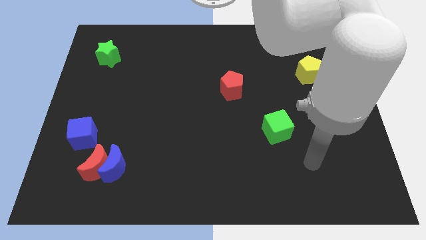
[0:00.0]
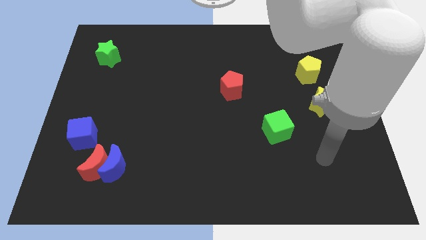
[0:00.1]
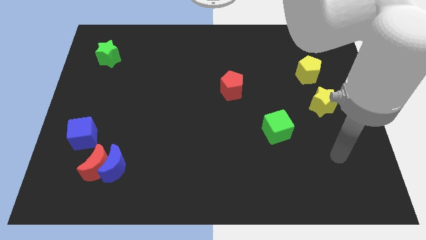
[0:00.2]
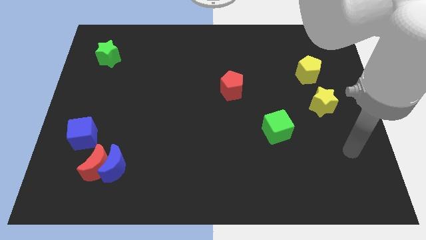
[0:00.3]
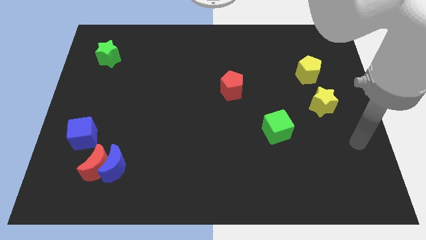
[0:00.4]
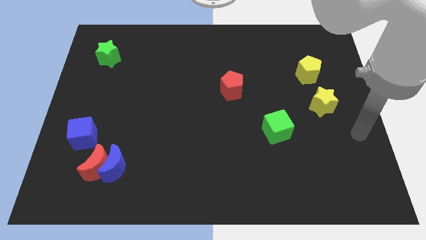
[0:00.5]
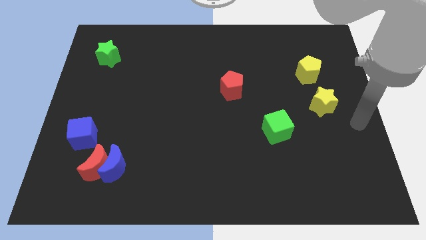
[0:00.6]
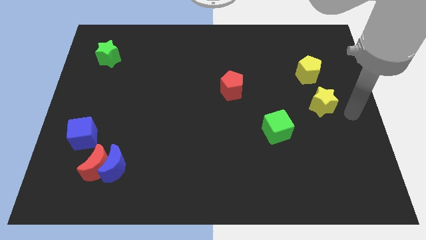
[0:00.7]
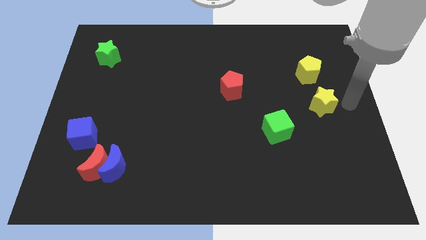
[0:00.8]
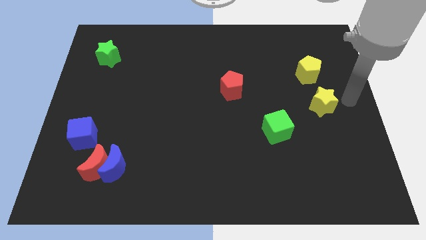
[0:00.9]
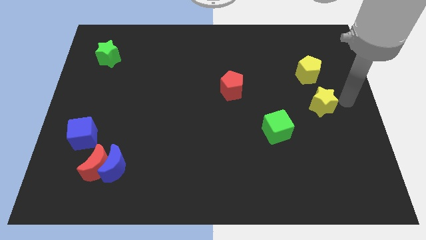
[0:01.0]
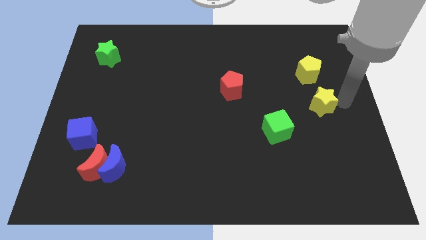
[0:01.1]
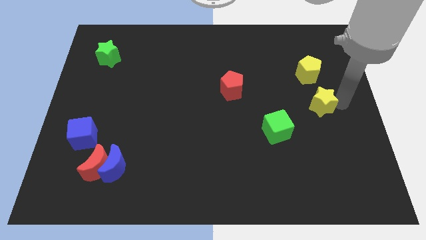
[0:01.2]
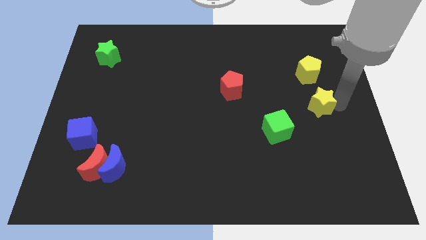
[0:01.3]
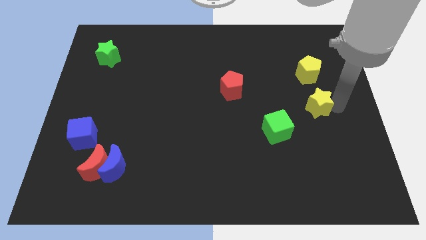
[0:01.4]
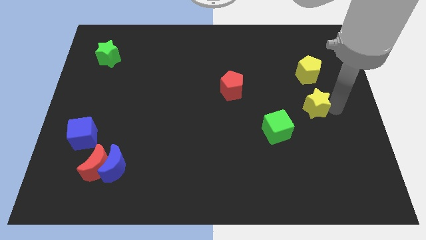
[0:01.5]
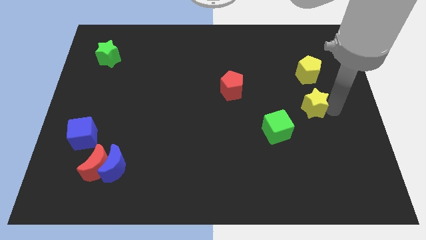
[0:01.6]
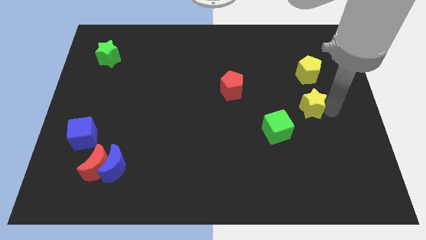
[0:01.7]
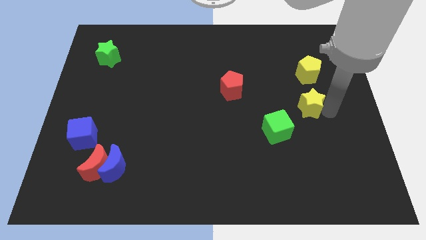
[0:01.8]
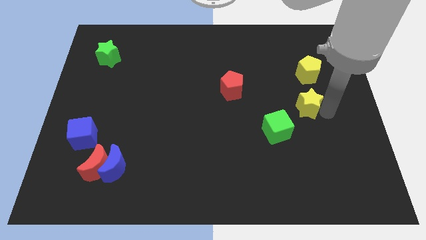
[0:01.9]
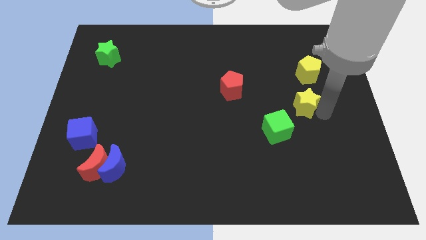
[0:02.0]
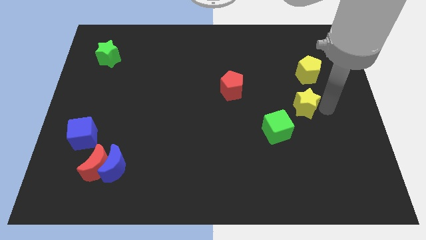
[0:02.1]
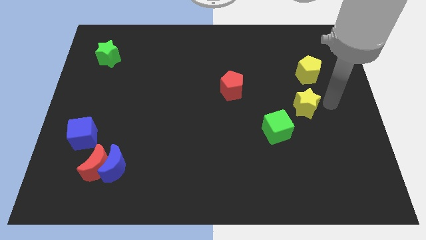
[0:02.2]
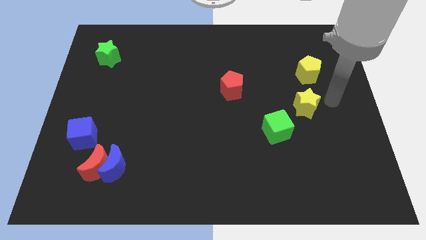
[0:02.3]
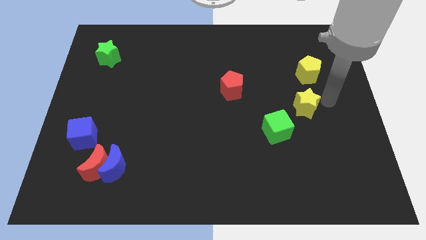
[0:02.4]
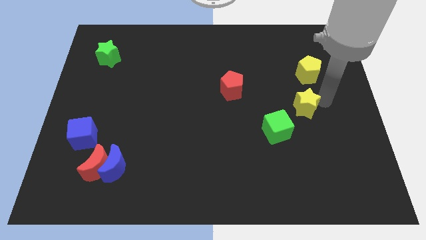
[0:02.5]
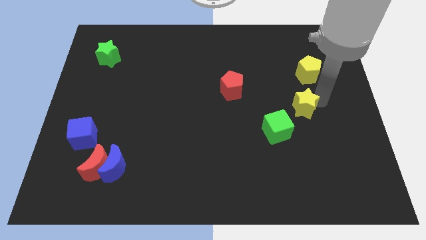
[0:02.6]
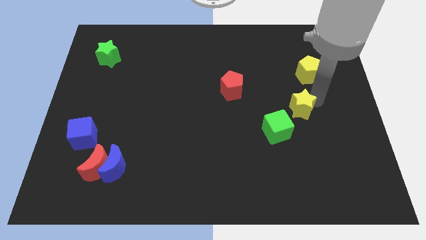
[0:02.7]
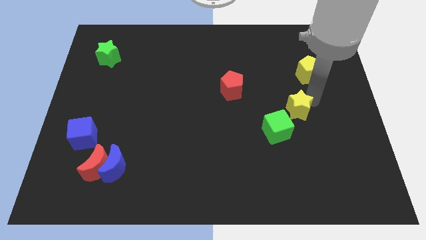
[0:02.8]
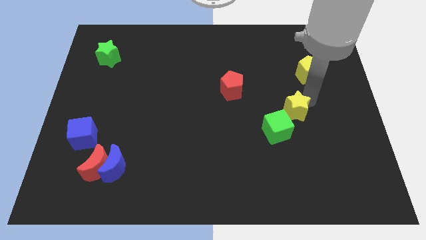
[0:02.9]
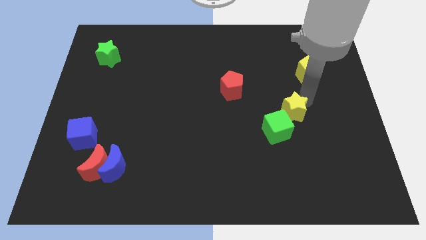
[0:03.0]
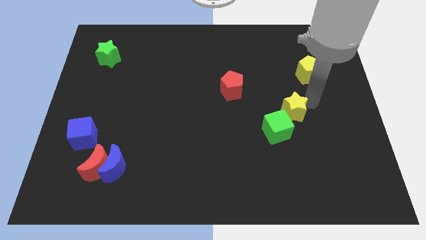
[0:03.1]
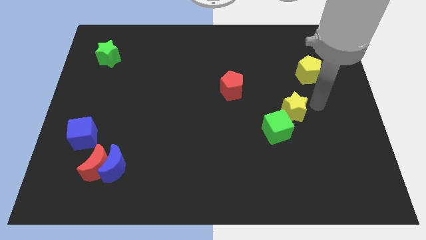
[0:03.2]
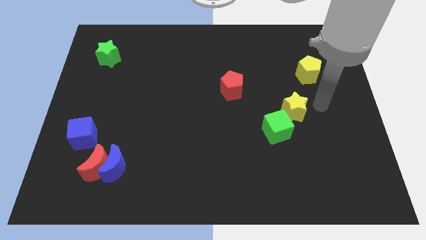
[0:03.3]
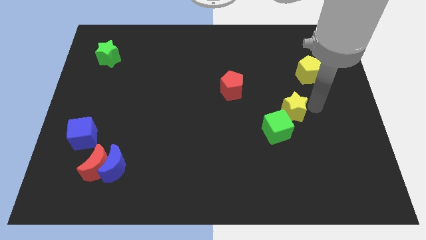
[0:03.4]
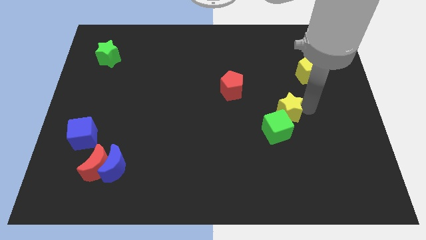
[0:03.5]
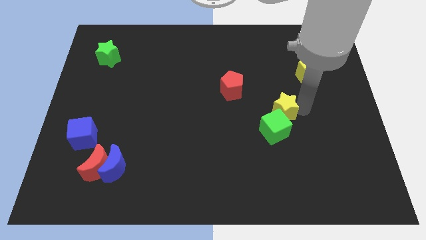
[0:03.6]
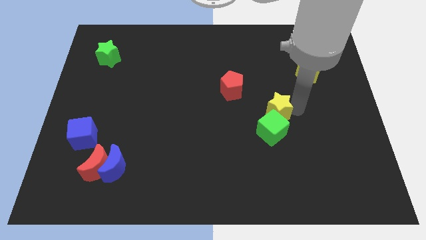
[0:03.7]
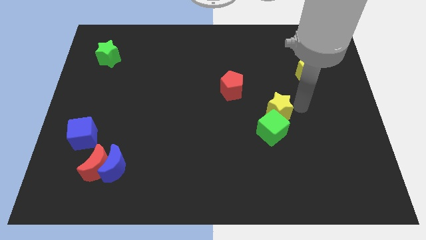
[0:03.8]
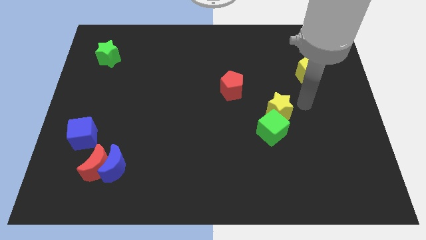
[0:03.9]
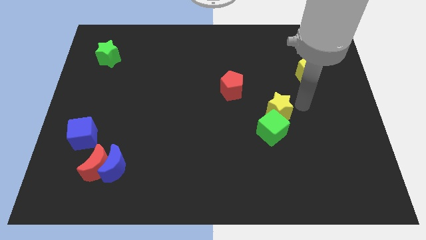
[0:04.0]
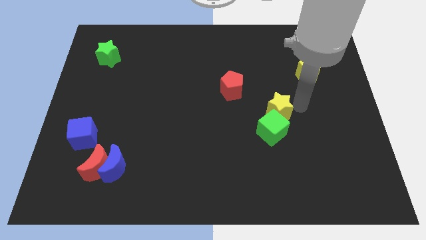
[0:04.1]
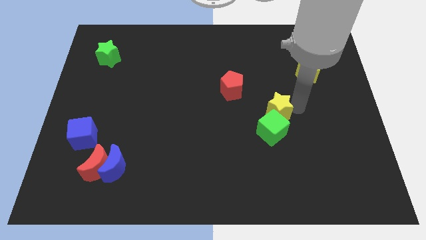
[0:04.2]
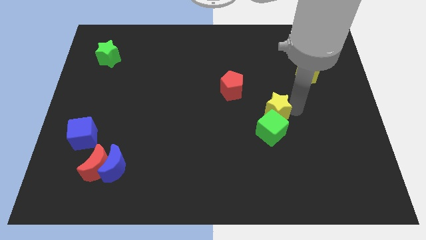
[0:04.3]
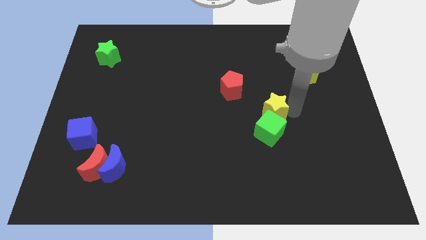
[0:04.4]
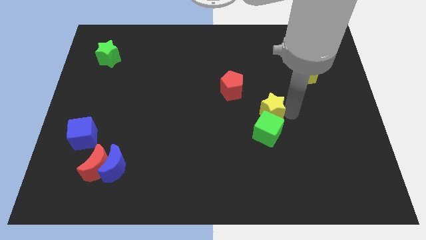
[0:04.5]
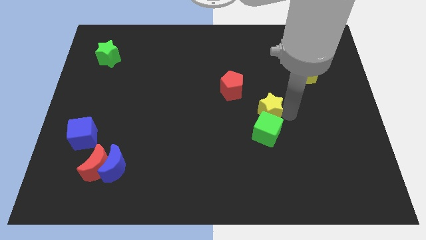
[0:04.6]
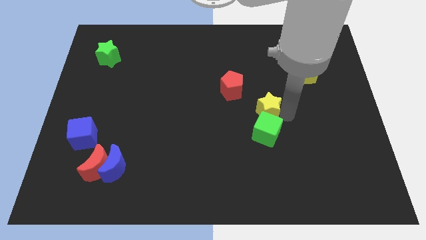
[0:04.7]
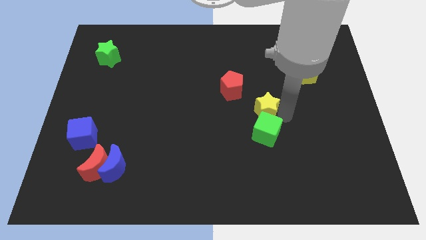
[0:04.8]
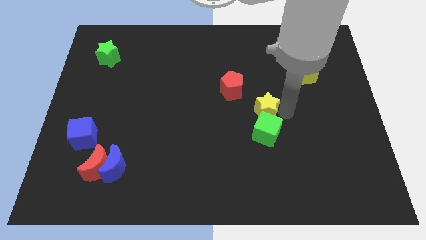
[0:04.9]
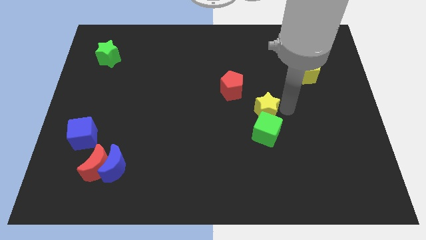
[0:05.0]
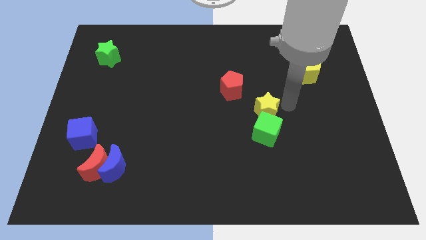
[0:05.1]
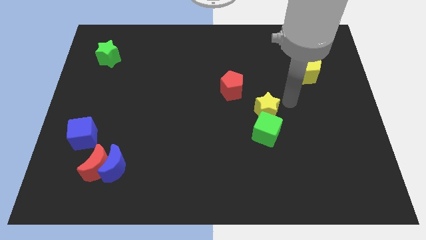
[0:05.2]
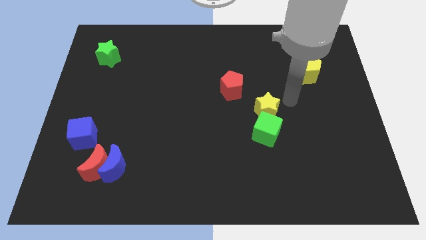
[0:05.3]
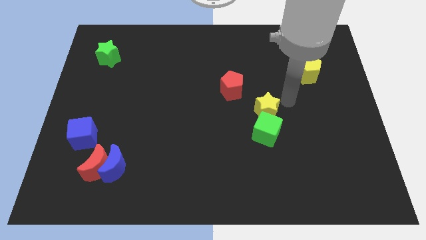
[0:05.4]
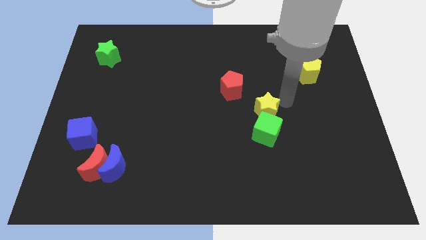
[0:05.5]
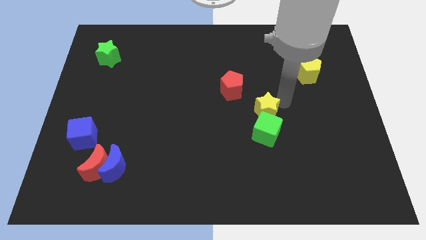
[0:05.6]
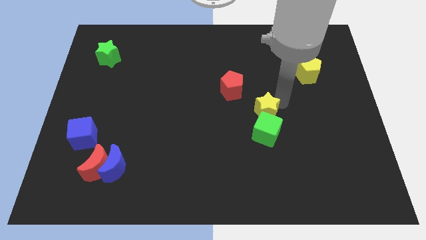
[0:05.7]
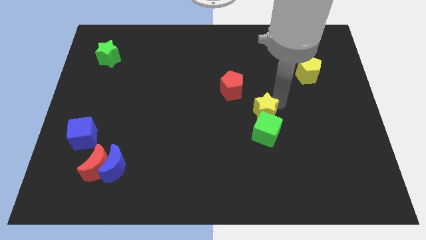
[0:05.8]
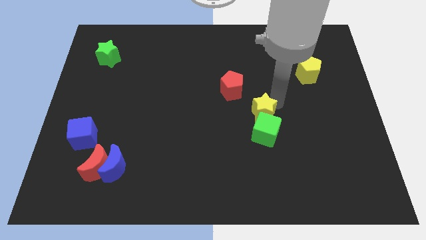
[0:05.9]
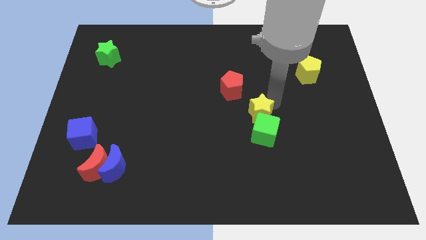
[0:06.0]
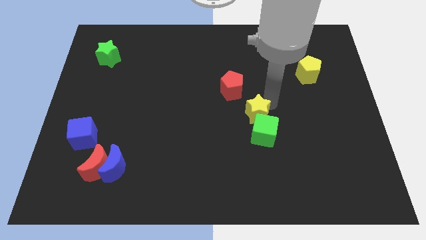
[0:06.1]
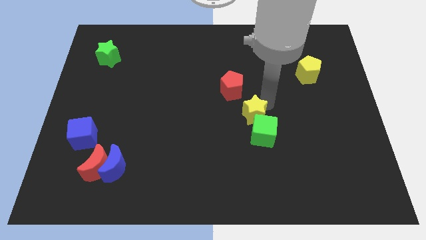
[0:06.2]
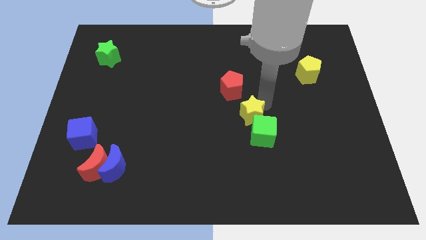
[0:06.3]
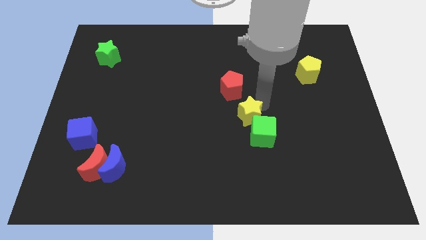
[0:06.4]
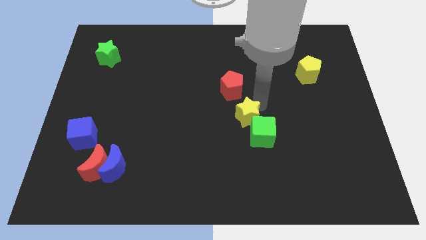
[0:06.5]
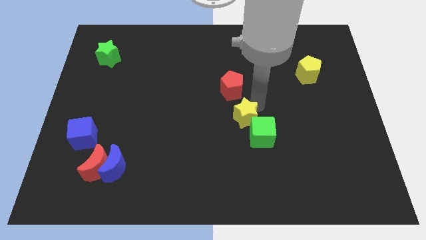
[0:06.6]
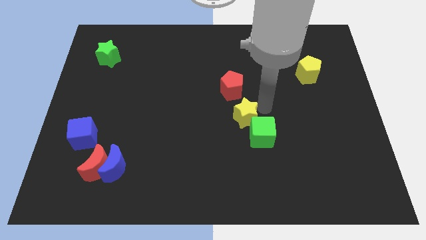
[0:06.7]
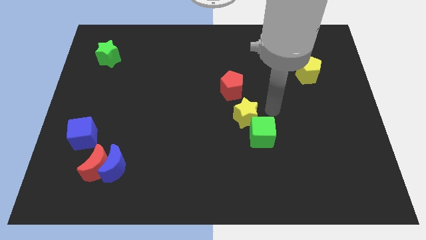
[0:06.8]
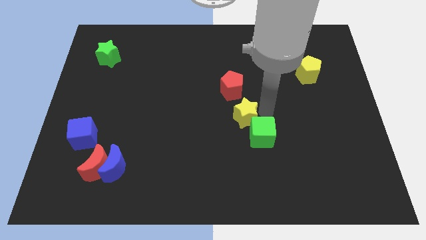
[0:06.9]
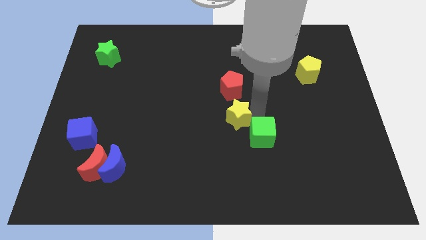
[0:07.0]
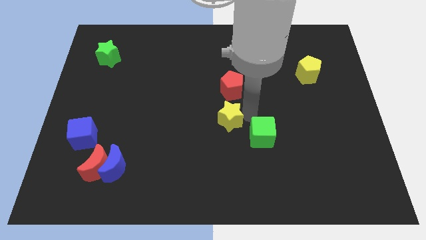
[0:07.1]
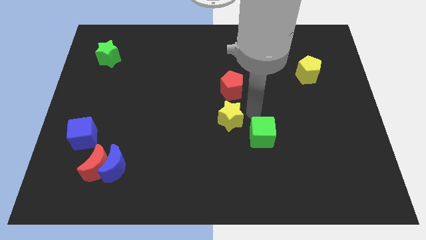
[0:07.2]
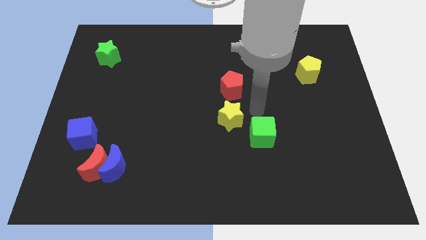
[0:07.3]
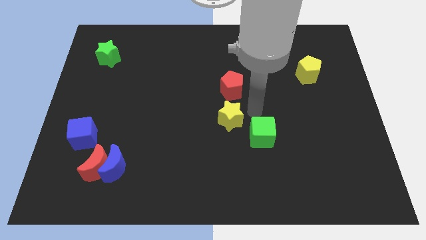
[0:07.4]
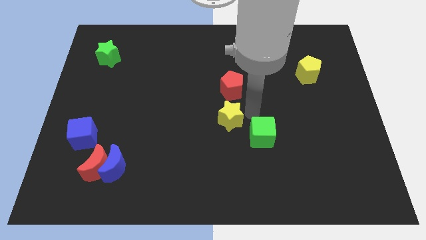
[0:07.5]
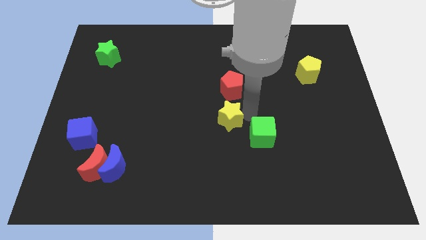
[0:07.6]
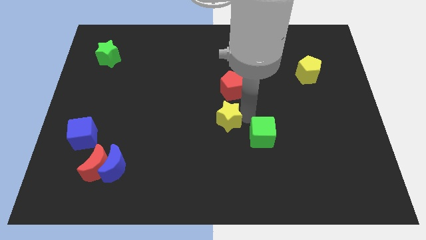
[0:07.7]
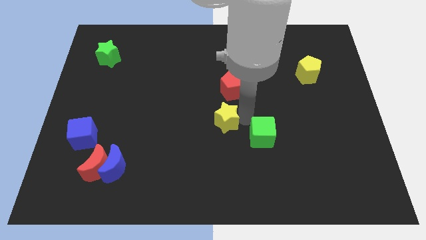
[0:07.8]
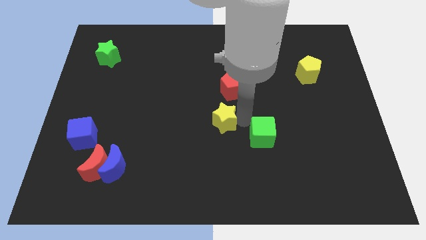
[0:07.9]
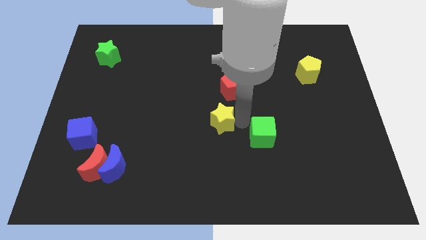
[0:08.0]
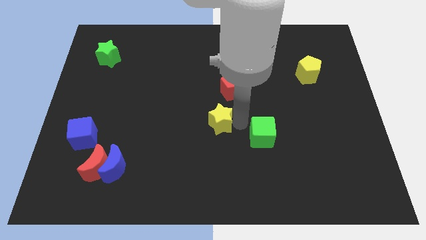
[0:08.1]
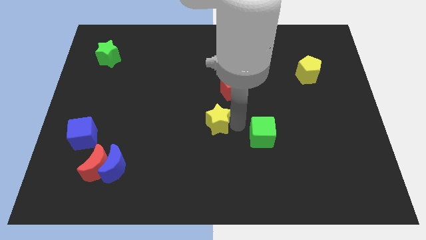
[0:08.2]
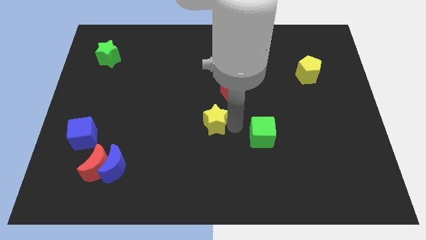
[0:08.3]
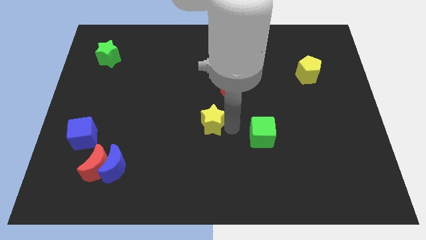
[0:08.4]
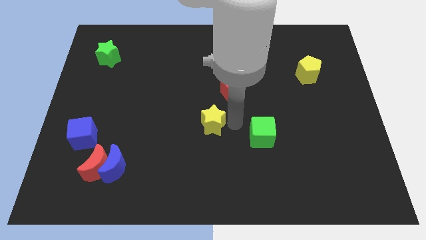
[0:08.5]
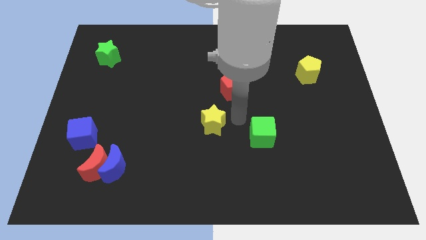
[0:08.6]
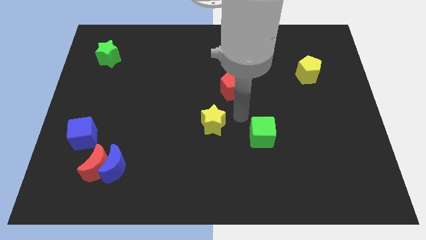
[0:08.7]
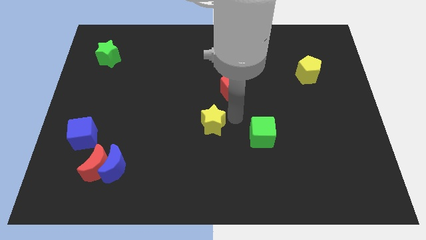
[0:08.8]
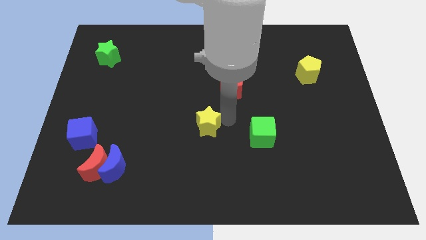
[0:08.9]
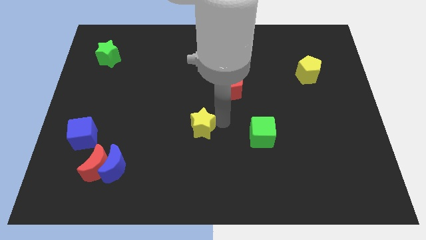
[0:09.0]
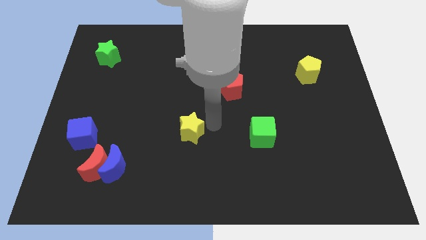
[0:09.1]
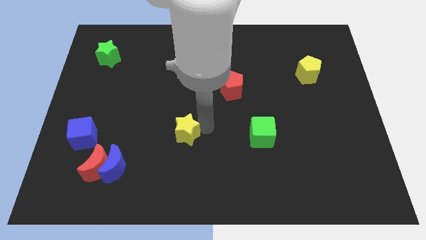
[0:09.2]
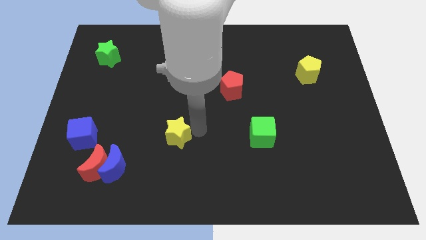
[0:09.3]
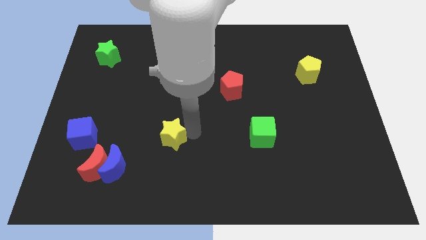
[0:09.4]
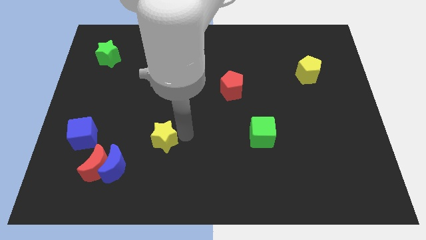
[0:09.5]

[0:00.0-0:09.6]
slide the yellow star to the top right side of the blue moon
